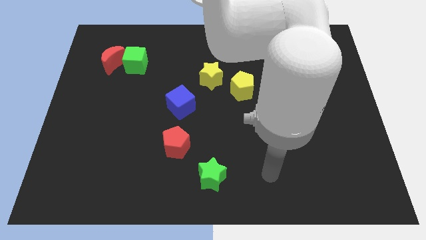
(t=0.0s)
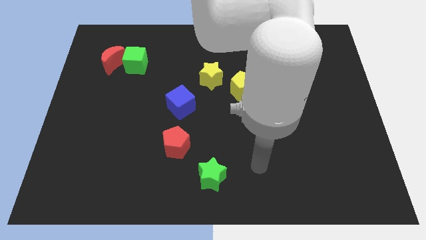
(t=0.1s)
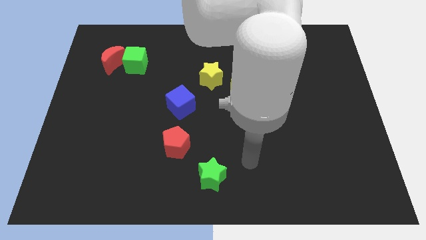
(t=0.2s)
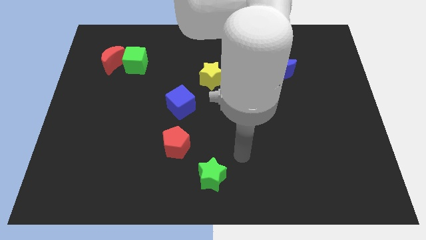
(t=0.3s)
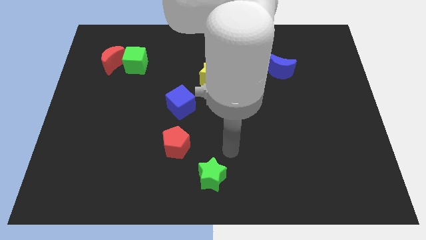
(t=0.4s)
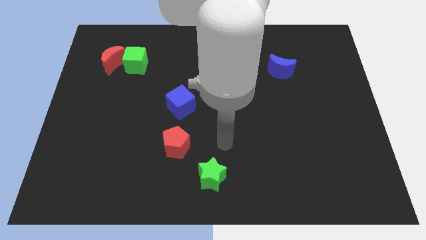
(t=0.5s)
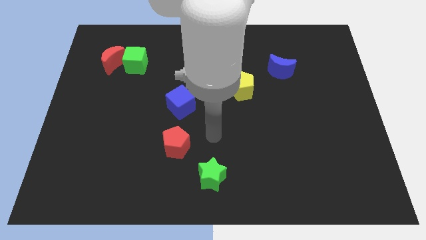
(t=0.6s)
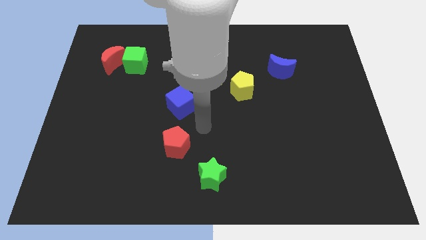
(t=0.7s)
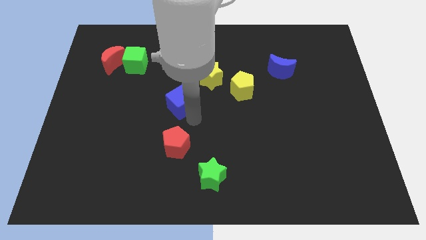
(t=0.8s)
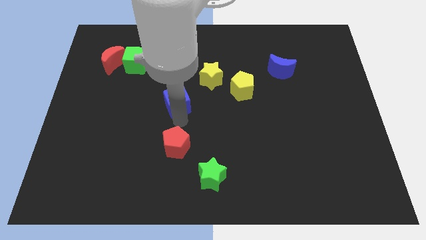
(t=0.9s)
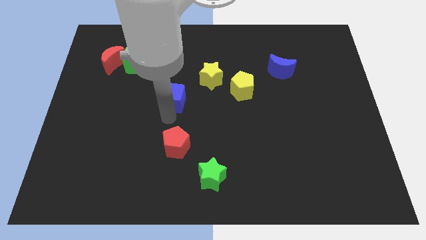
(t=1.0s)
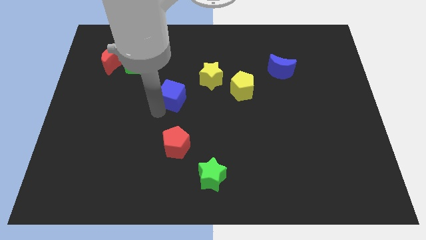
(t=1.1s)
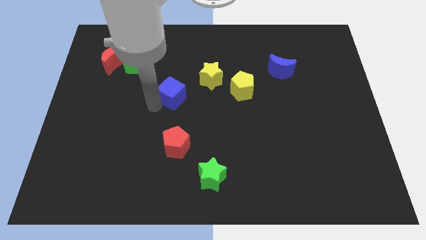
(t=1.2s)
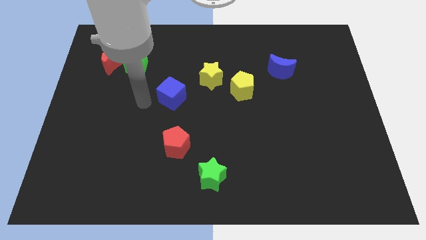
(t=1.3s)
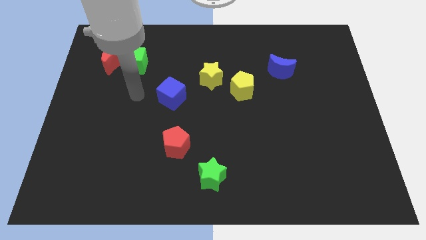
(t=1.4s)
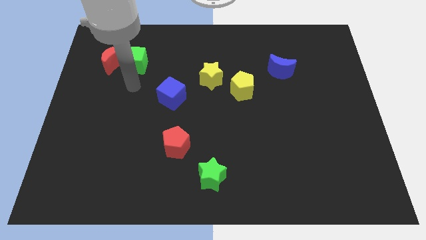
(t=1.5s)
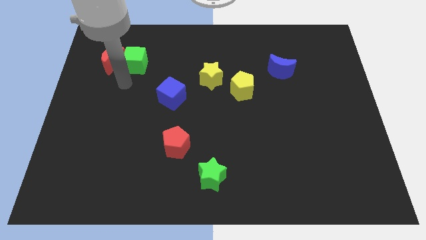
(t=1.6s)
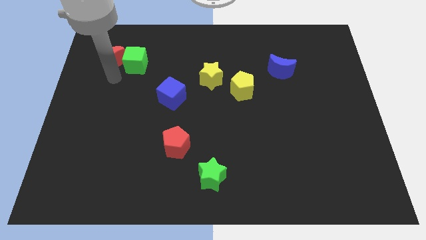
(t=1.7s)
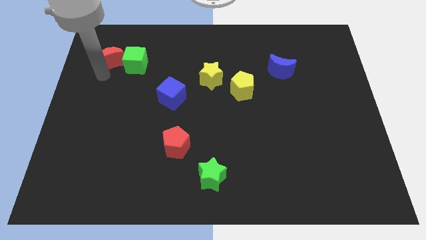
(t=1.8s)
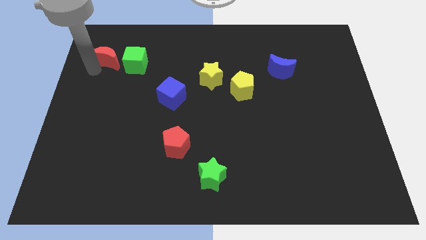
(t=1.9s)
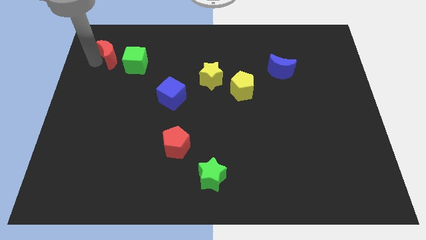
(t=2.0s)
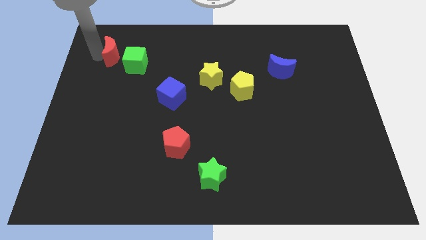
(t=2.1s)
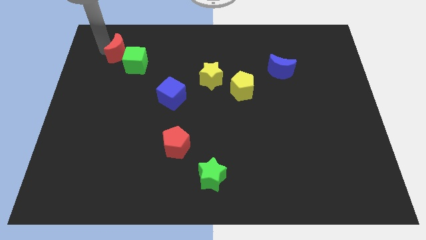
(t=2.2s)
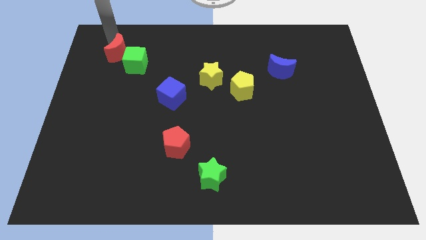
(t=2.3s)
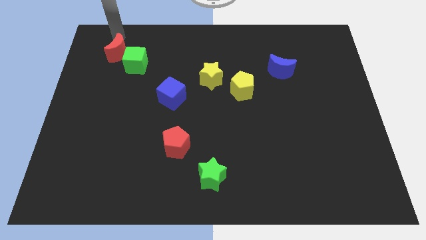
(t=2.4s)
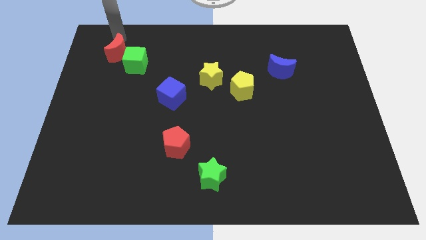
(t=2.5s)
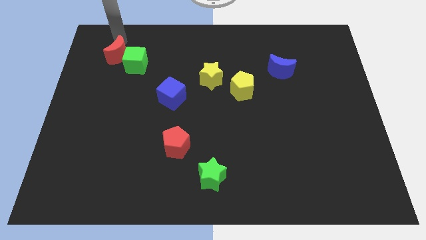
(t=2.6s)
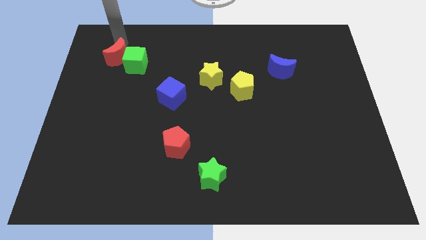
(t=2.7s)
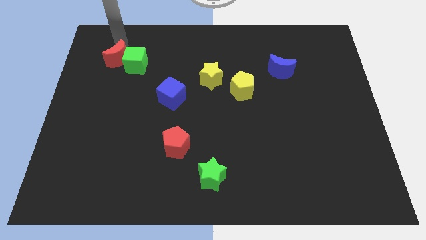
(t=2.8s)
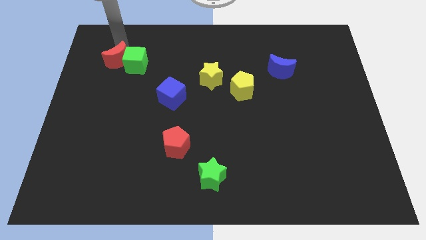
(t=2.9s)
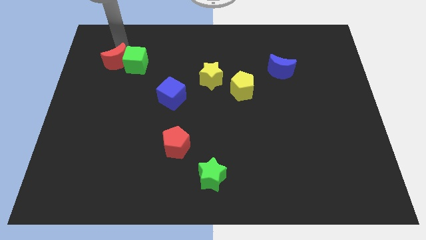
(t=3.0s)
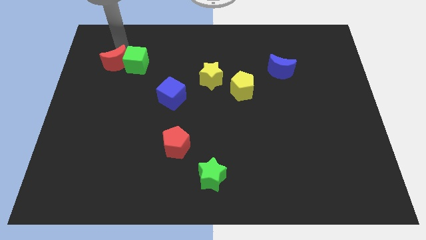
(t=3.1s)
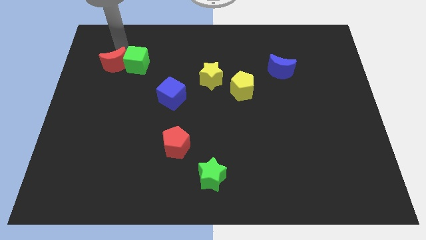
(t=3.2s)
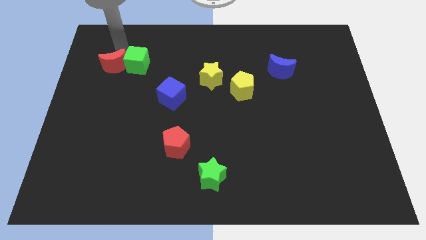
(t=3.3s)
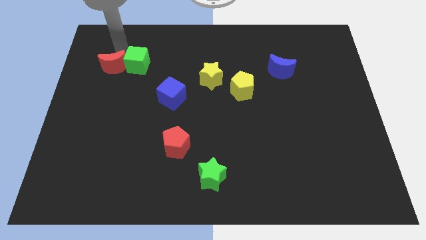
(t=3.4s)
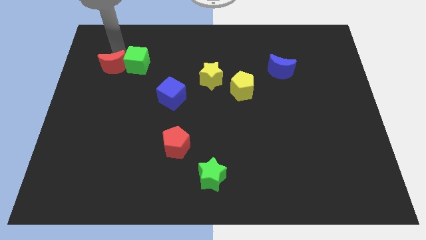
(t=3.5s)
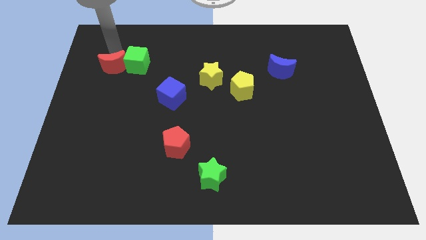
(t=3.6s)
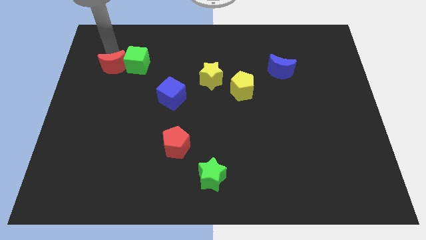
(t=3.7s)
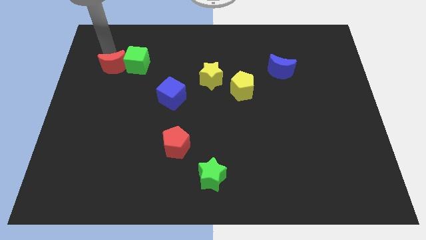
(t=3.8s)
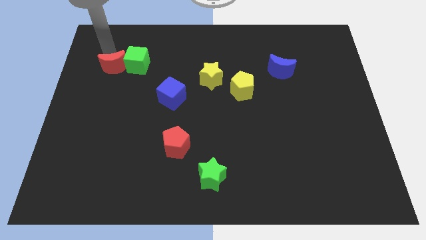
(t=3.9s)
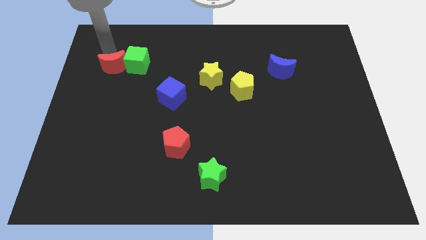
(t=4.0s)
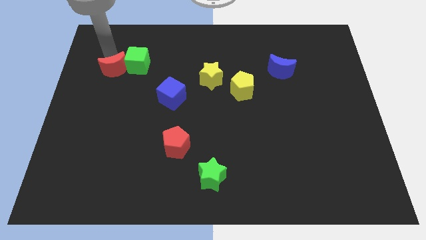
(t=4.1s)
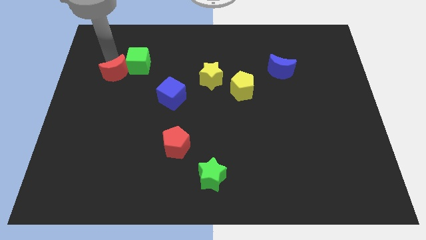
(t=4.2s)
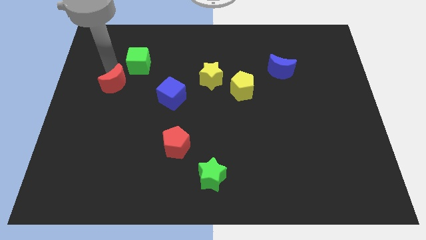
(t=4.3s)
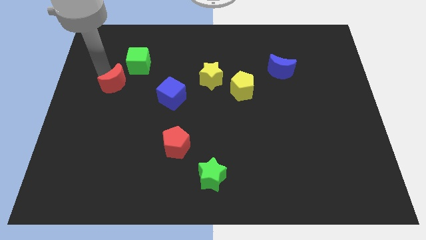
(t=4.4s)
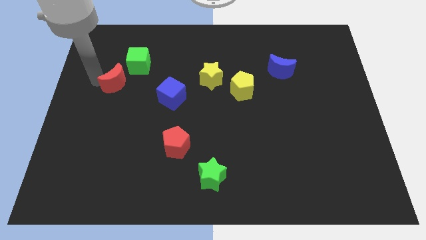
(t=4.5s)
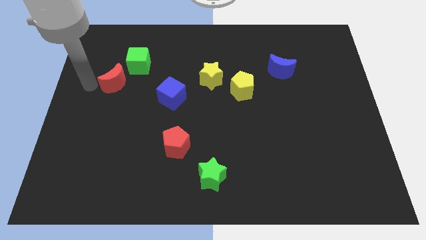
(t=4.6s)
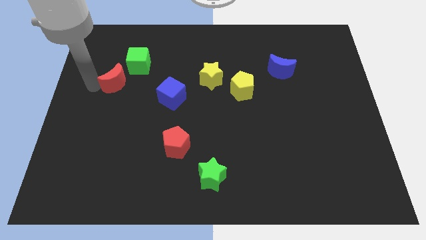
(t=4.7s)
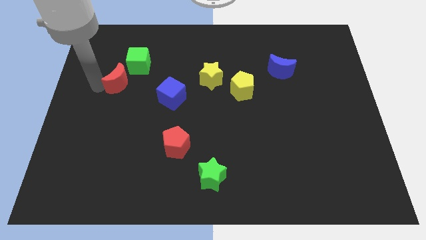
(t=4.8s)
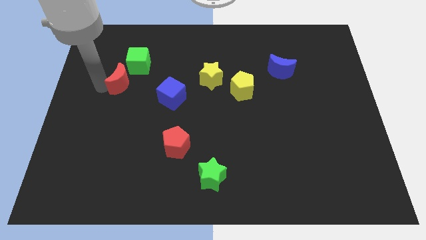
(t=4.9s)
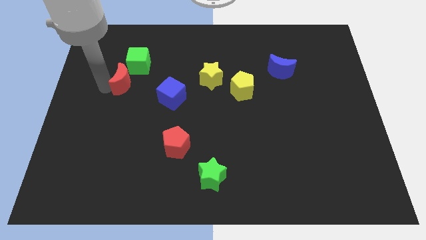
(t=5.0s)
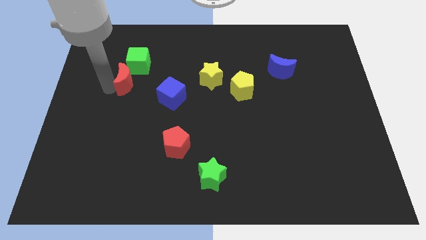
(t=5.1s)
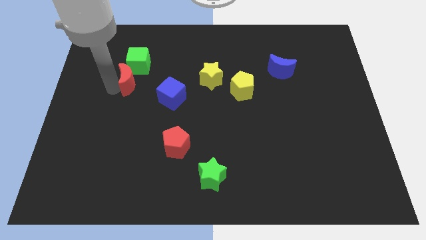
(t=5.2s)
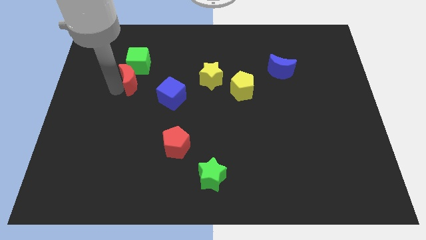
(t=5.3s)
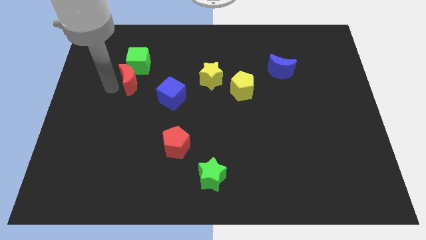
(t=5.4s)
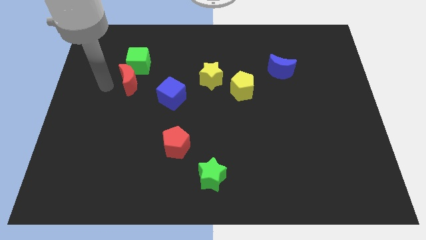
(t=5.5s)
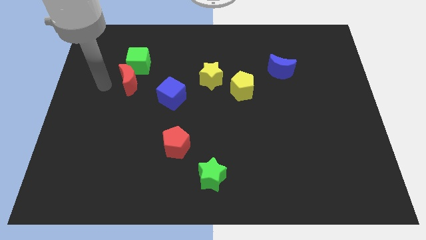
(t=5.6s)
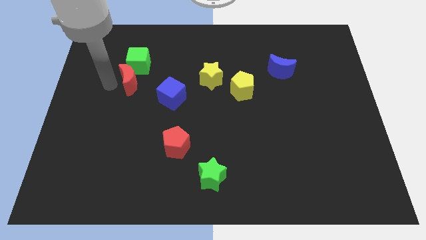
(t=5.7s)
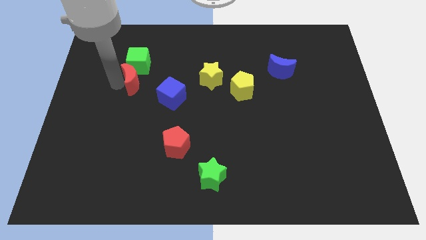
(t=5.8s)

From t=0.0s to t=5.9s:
move the red moon to the bottom right side of the green cube

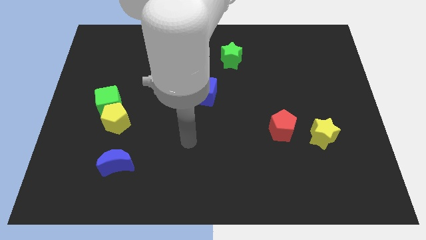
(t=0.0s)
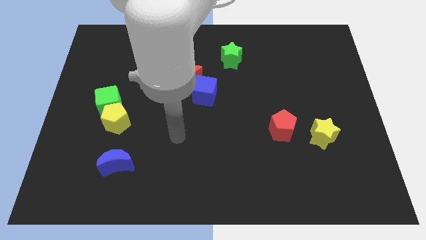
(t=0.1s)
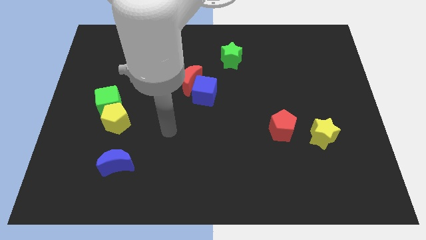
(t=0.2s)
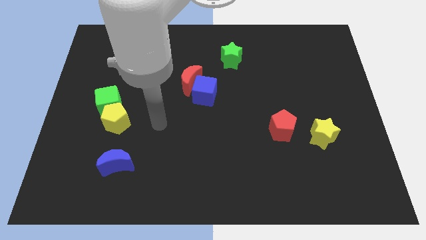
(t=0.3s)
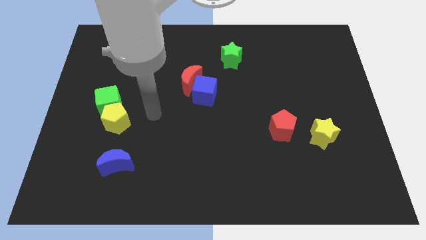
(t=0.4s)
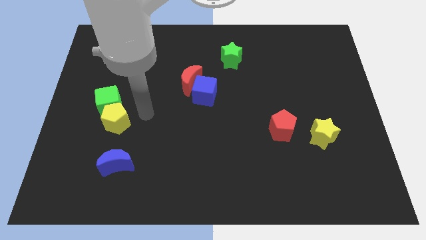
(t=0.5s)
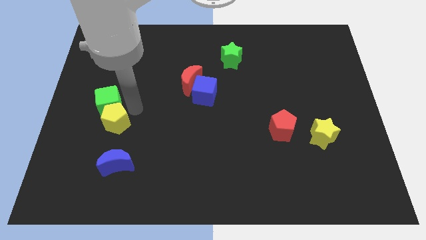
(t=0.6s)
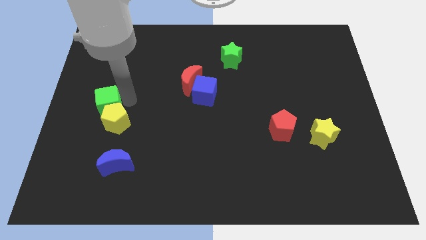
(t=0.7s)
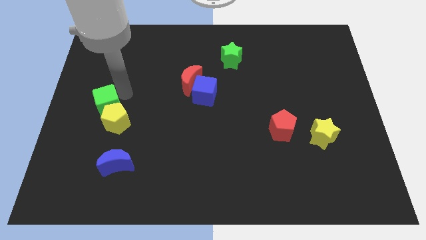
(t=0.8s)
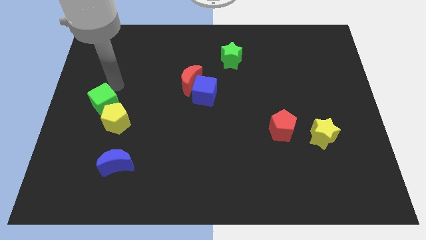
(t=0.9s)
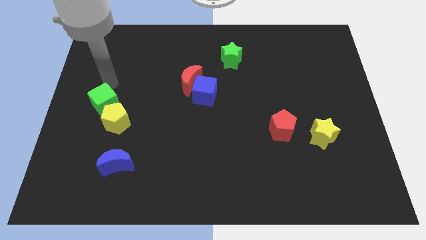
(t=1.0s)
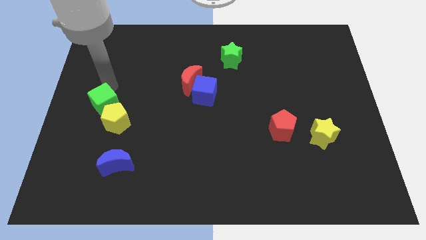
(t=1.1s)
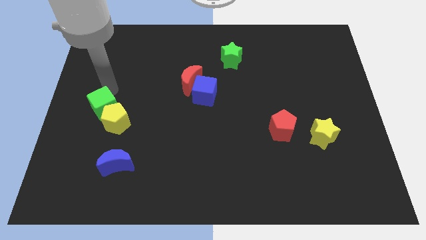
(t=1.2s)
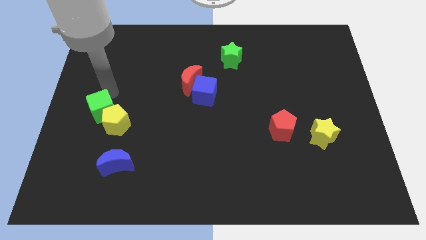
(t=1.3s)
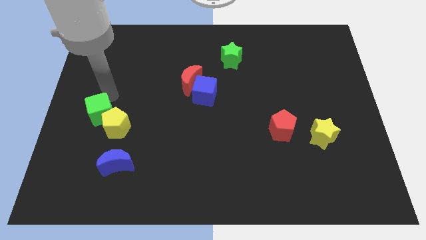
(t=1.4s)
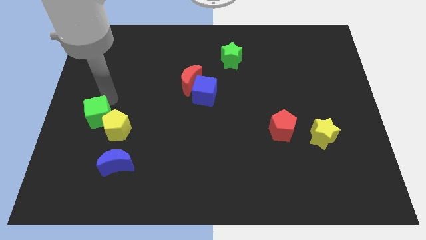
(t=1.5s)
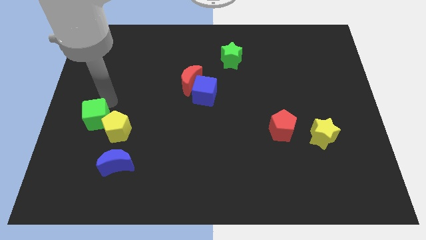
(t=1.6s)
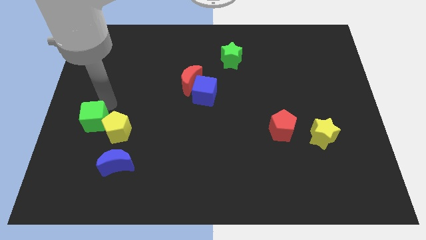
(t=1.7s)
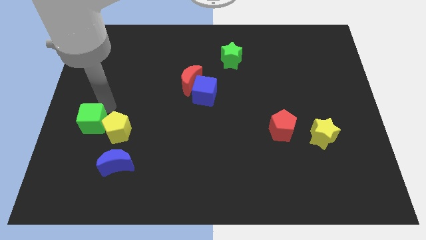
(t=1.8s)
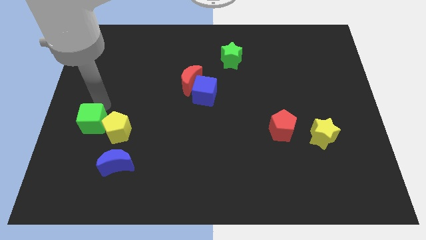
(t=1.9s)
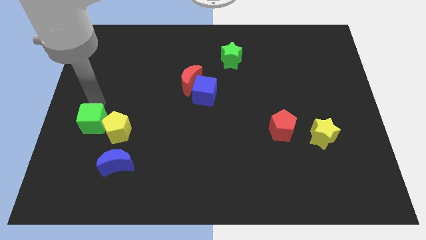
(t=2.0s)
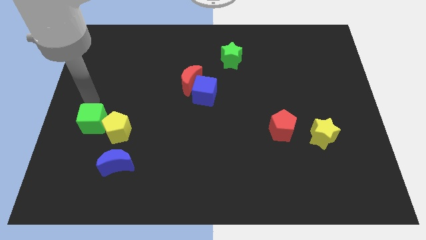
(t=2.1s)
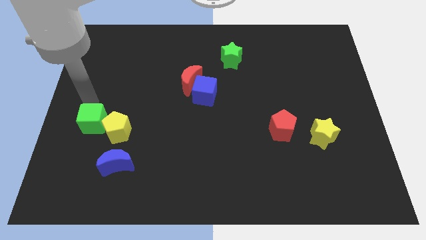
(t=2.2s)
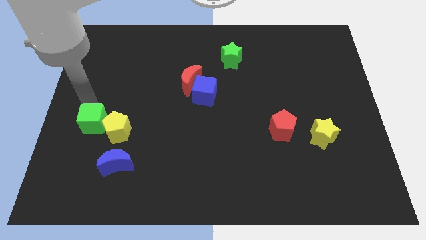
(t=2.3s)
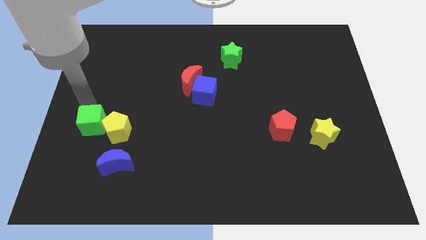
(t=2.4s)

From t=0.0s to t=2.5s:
move the green cube to the top left side of the blue moon
